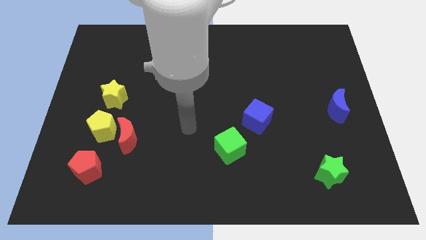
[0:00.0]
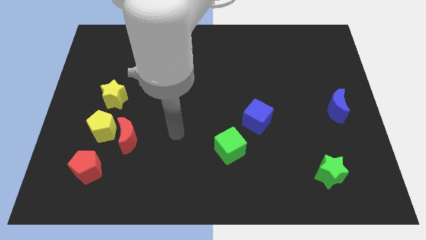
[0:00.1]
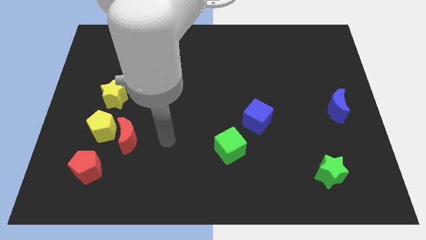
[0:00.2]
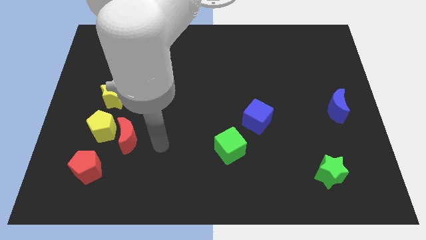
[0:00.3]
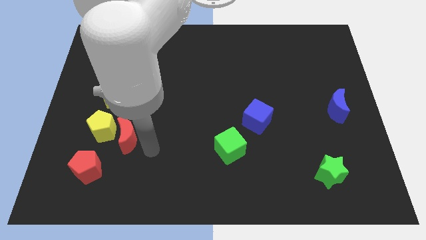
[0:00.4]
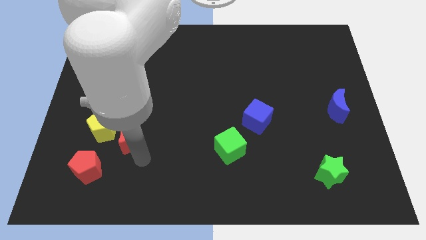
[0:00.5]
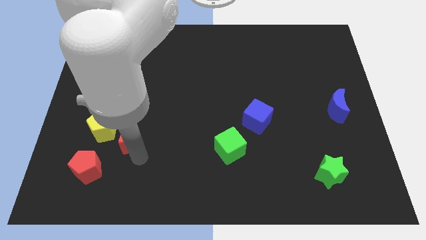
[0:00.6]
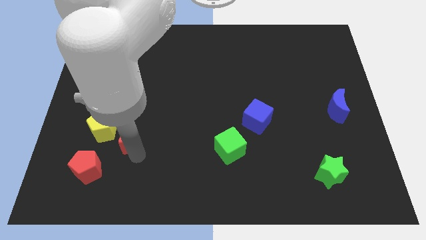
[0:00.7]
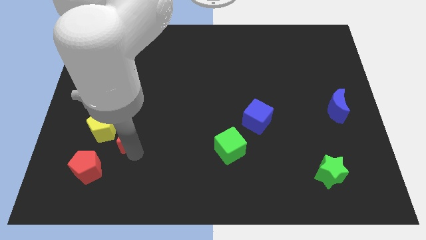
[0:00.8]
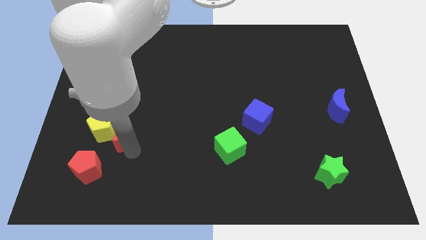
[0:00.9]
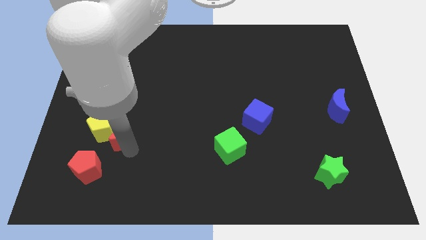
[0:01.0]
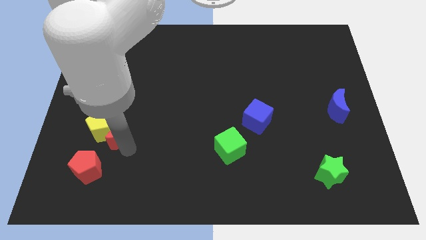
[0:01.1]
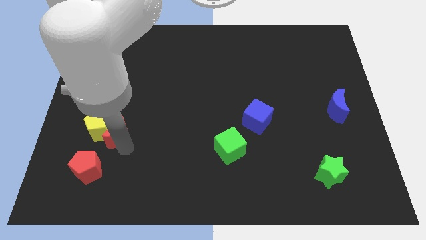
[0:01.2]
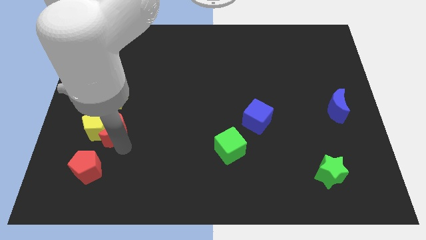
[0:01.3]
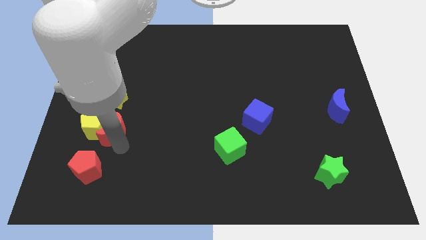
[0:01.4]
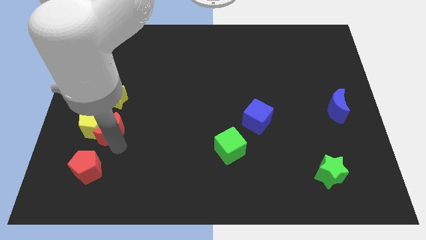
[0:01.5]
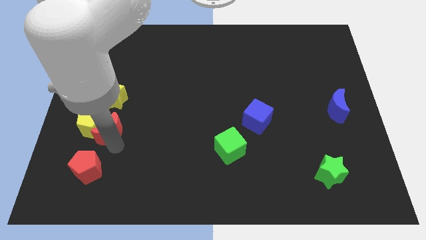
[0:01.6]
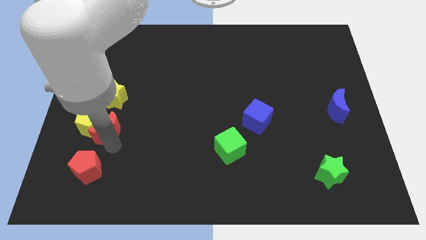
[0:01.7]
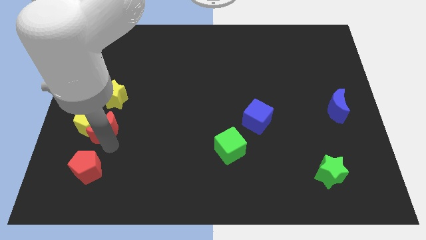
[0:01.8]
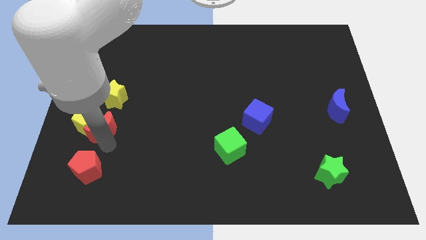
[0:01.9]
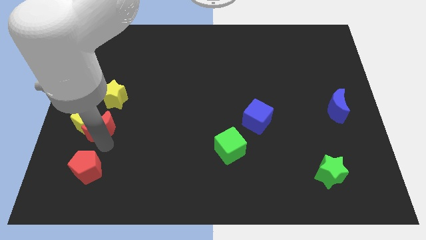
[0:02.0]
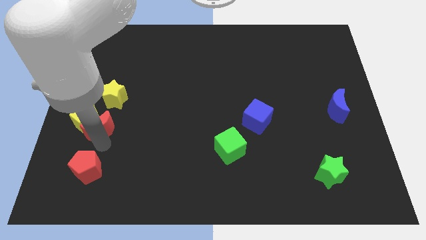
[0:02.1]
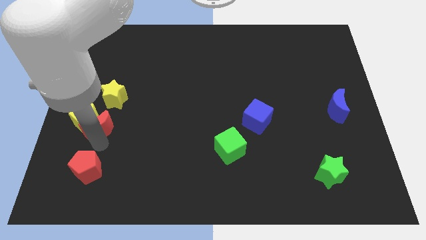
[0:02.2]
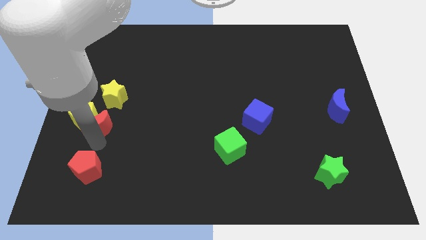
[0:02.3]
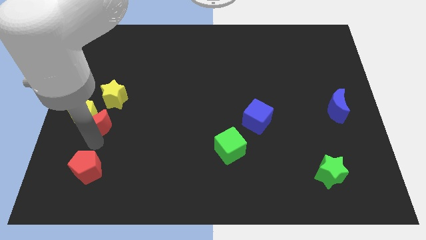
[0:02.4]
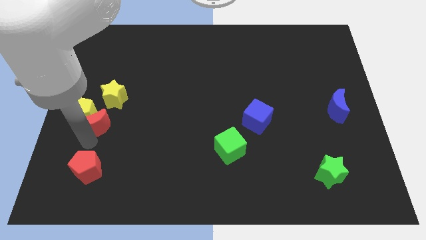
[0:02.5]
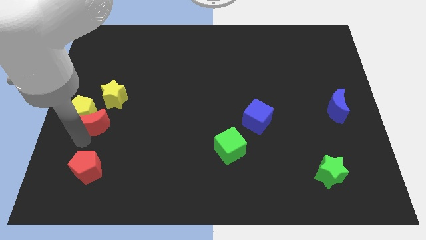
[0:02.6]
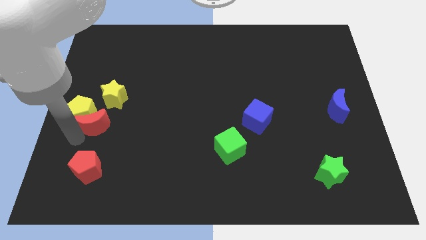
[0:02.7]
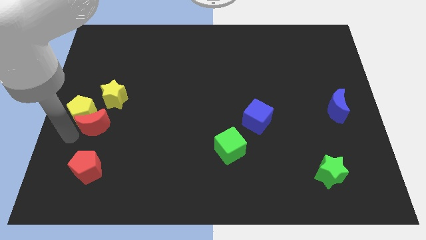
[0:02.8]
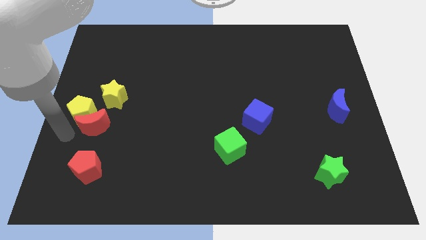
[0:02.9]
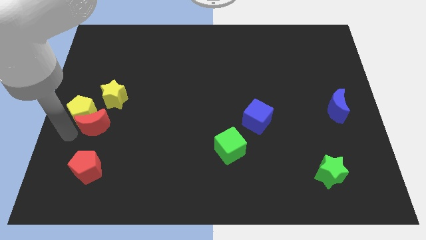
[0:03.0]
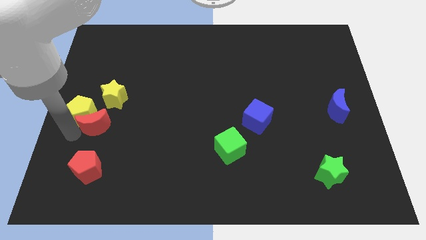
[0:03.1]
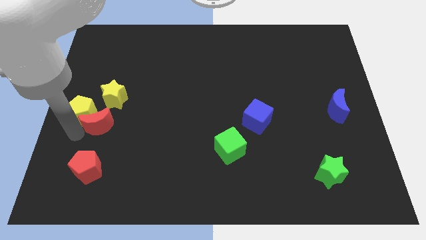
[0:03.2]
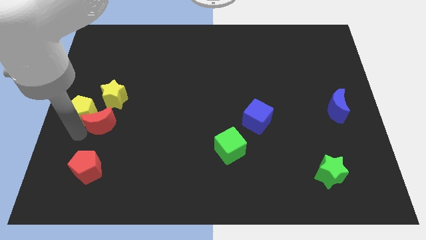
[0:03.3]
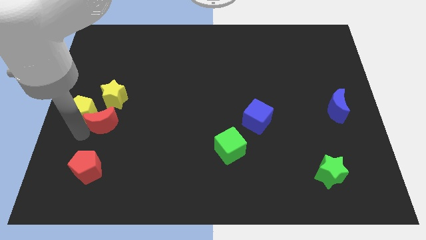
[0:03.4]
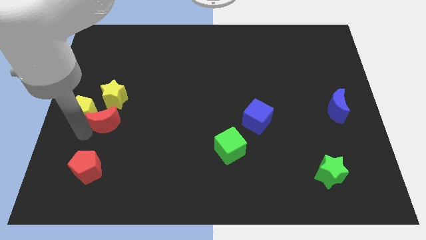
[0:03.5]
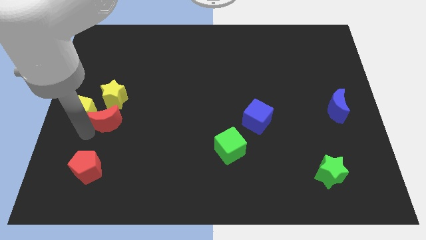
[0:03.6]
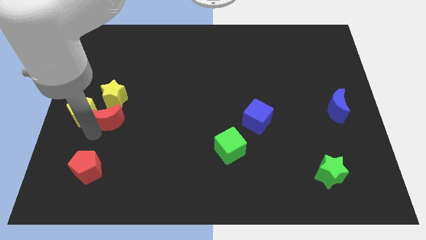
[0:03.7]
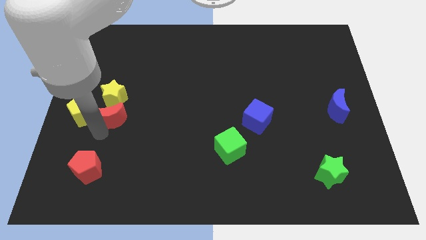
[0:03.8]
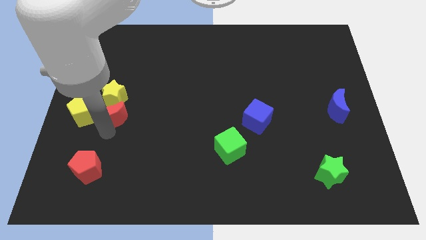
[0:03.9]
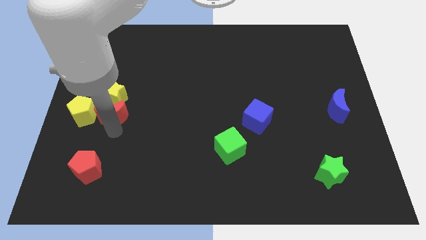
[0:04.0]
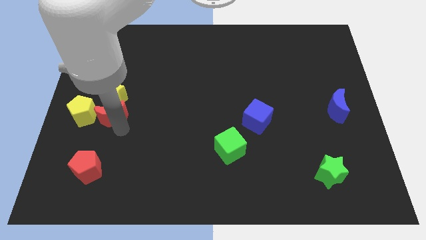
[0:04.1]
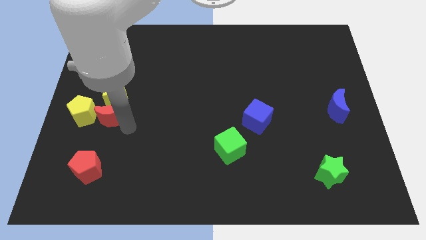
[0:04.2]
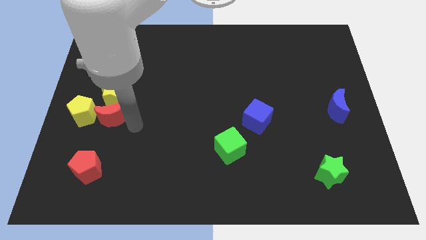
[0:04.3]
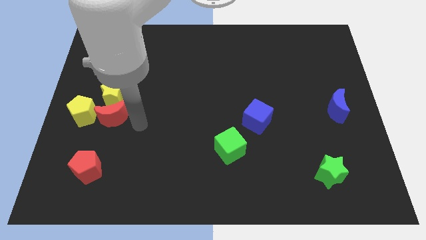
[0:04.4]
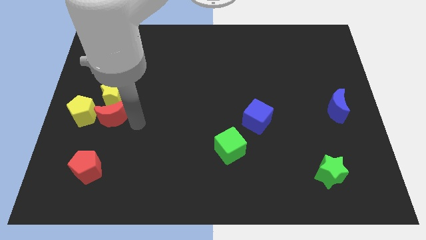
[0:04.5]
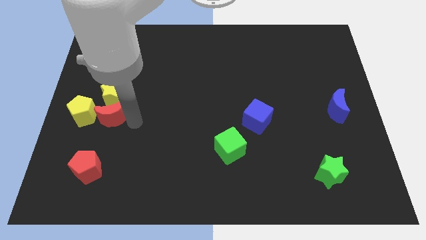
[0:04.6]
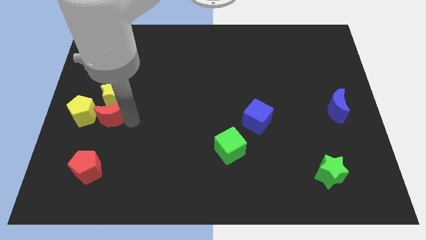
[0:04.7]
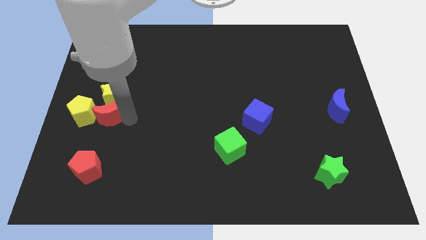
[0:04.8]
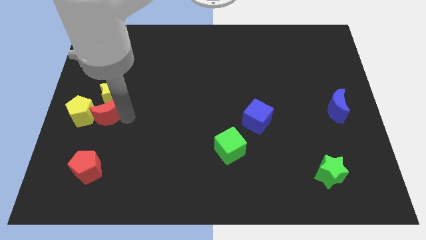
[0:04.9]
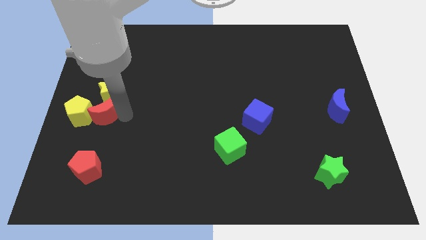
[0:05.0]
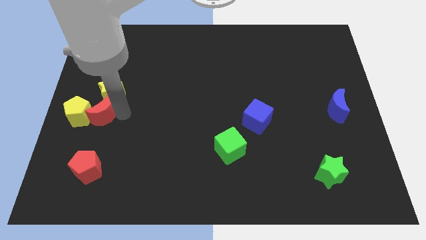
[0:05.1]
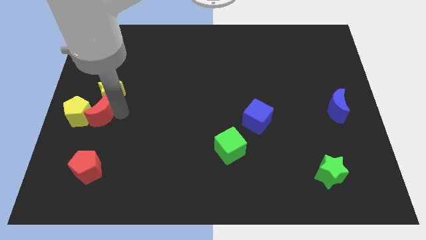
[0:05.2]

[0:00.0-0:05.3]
slide the red moon to the left side of the board

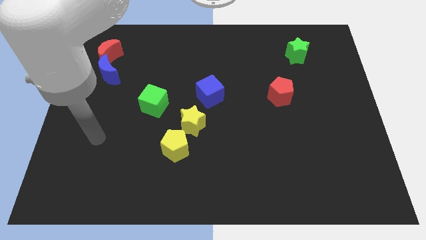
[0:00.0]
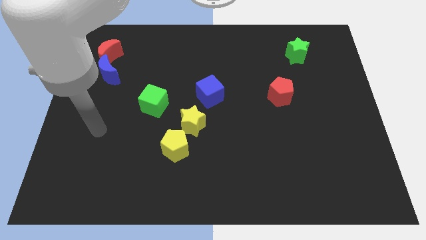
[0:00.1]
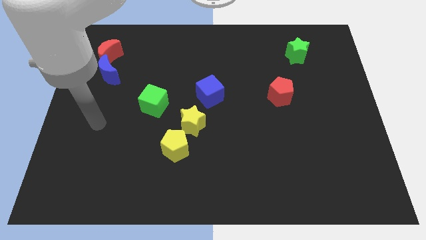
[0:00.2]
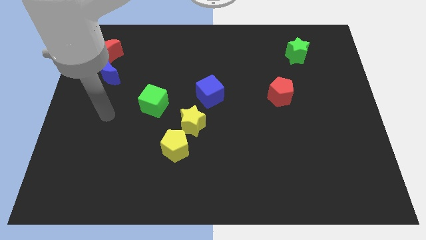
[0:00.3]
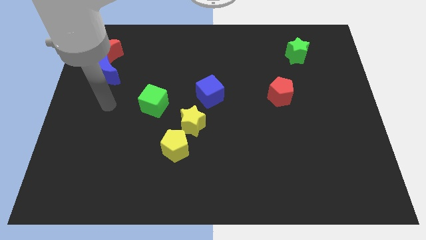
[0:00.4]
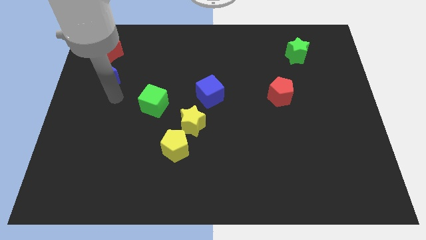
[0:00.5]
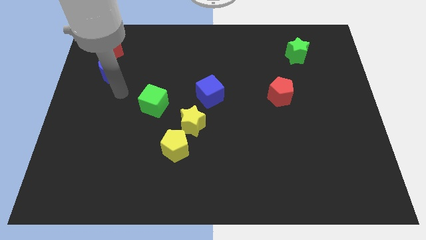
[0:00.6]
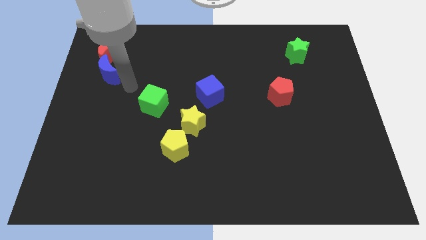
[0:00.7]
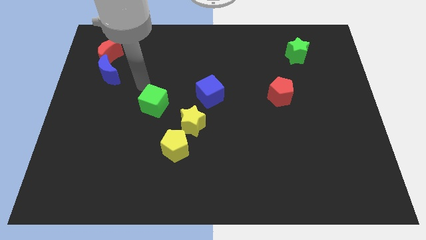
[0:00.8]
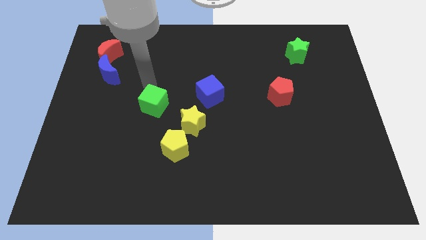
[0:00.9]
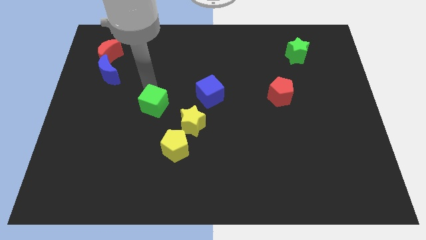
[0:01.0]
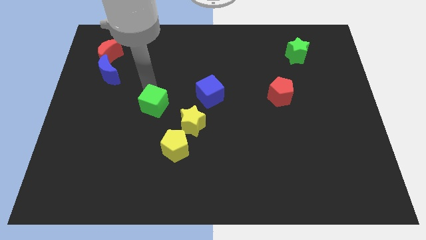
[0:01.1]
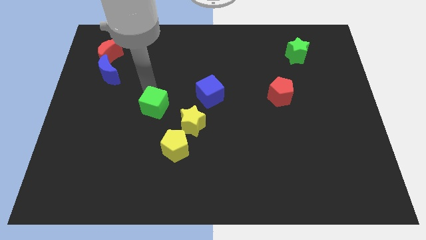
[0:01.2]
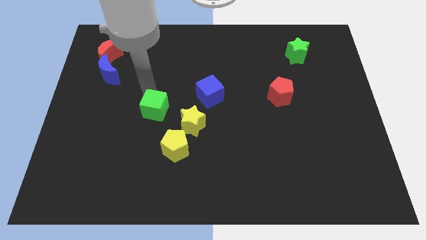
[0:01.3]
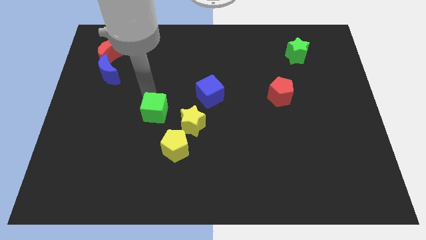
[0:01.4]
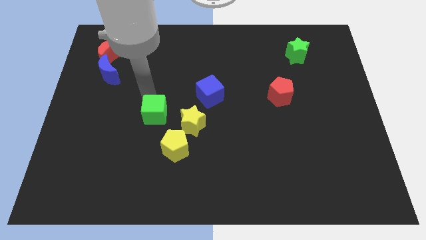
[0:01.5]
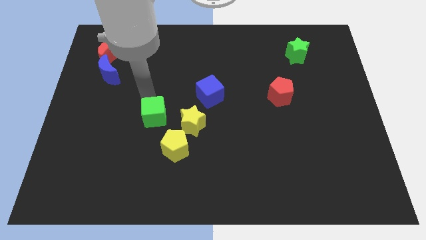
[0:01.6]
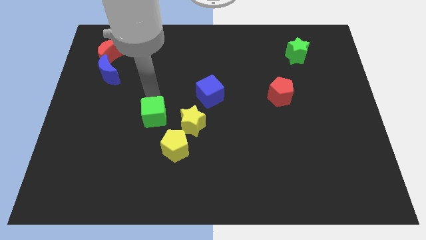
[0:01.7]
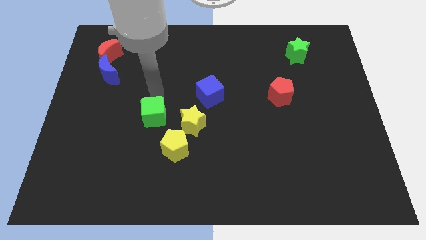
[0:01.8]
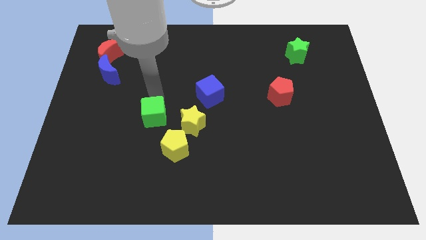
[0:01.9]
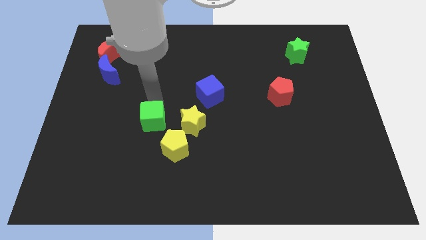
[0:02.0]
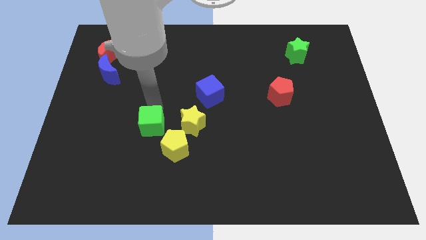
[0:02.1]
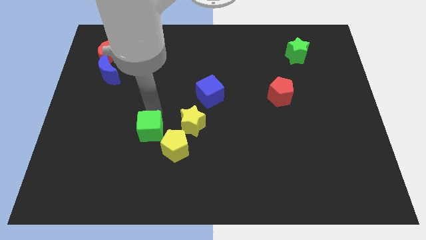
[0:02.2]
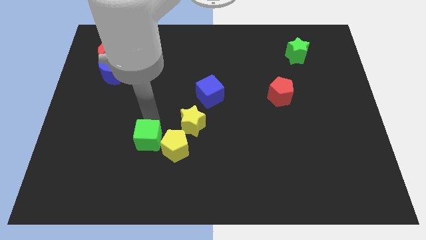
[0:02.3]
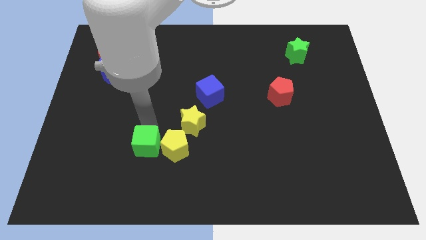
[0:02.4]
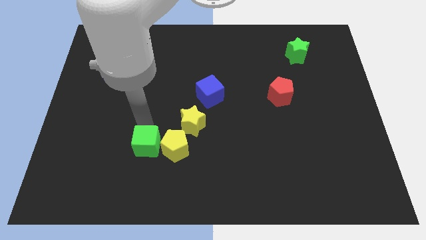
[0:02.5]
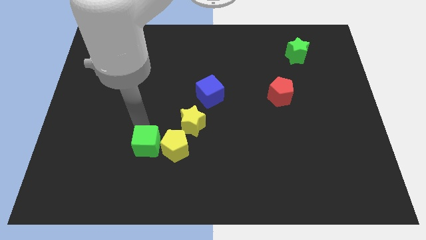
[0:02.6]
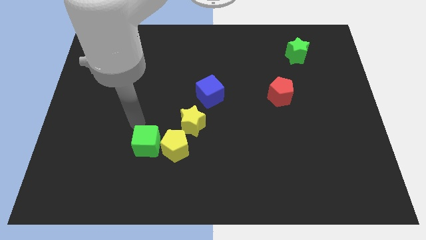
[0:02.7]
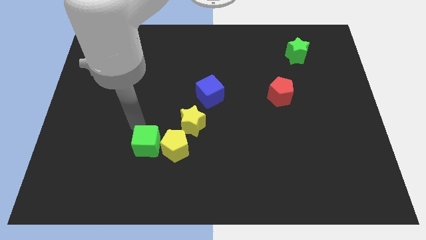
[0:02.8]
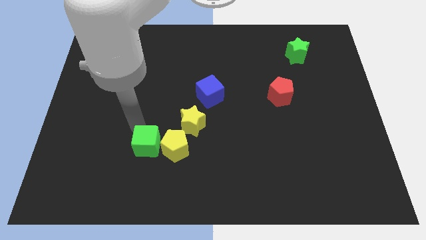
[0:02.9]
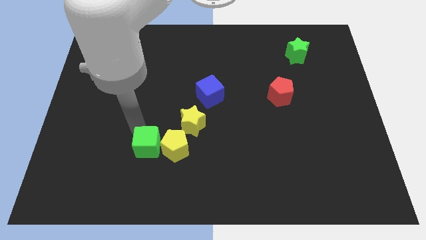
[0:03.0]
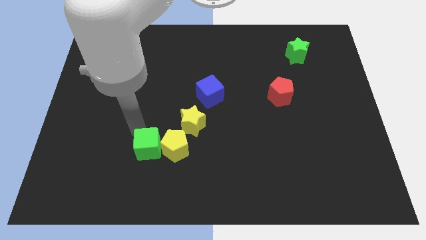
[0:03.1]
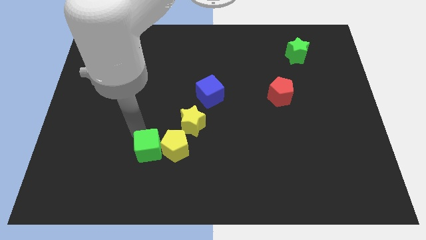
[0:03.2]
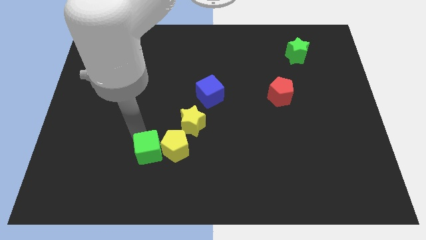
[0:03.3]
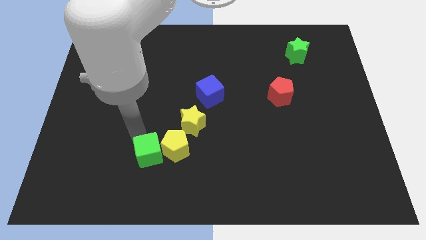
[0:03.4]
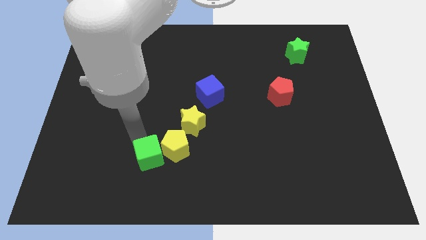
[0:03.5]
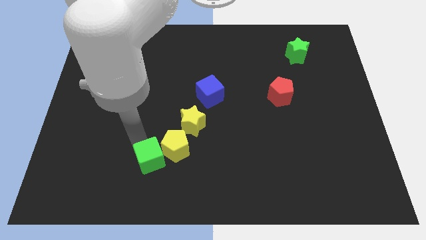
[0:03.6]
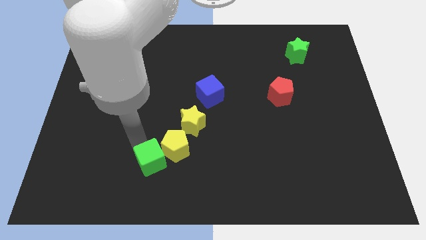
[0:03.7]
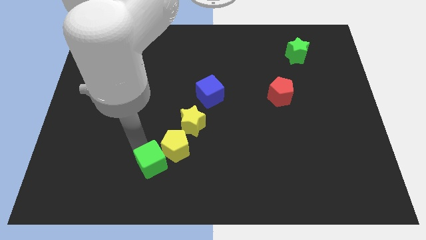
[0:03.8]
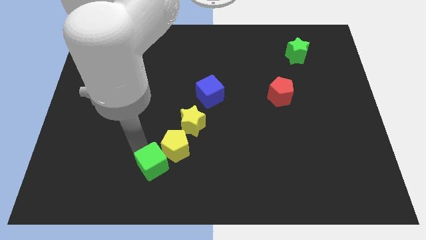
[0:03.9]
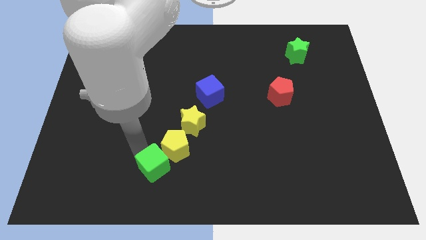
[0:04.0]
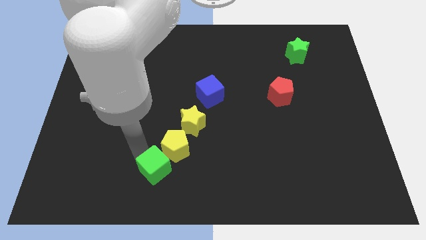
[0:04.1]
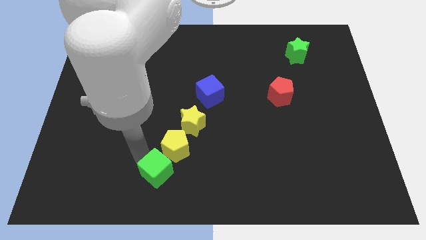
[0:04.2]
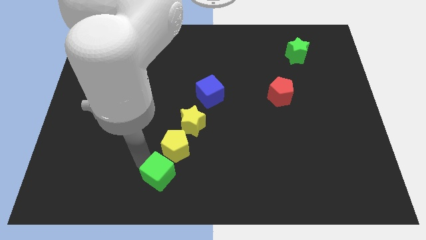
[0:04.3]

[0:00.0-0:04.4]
slide the green cube to the bottom
